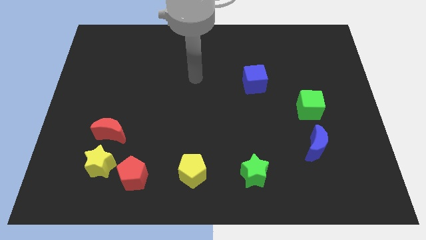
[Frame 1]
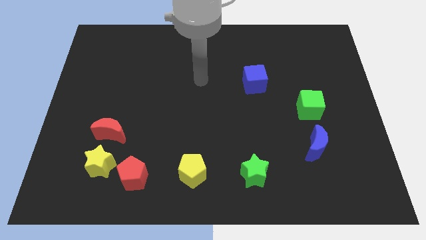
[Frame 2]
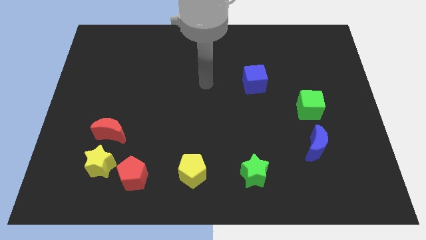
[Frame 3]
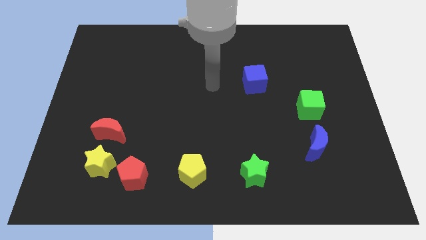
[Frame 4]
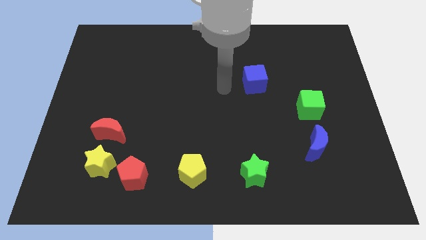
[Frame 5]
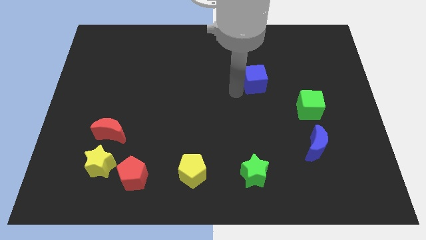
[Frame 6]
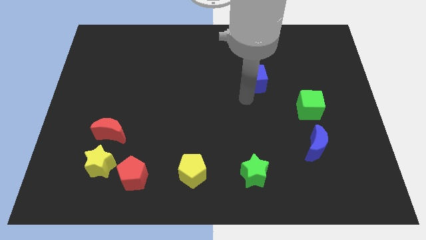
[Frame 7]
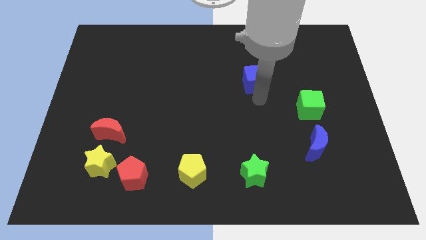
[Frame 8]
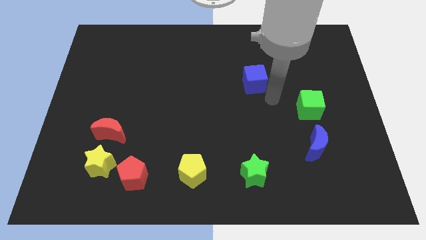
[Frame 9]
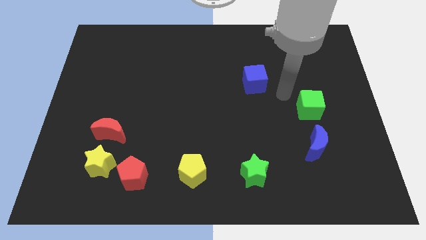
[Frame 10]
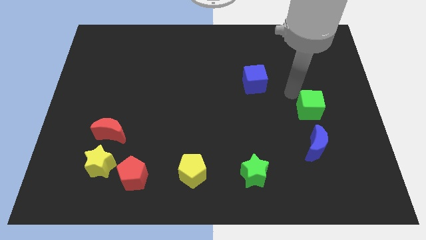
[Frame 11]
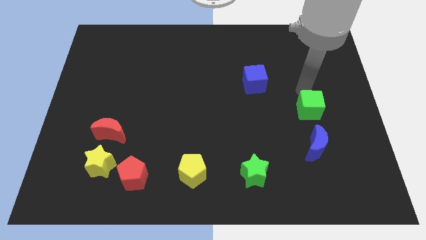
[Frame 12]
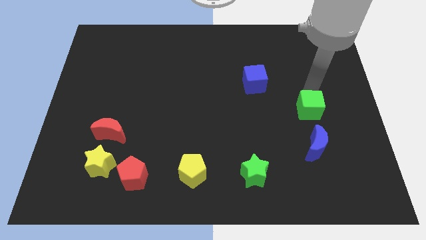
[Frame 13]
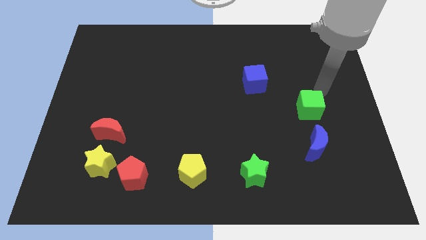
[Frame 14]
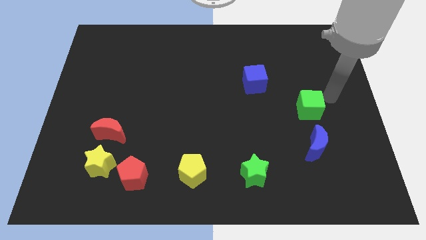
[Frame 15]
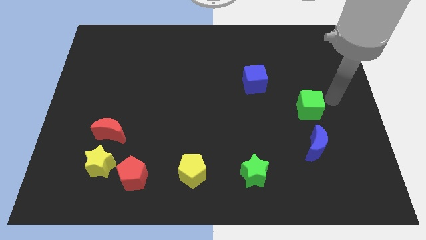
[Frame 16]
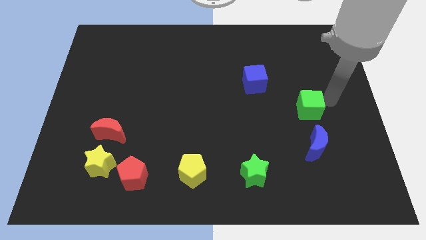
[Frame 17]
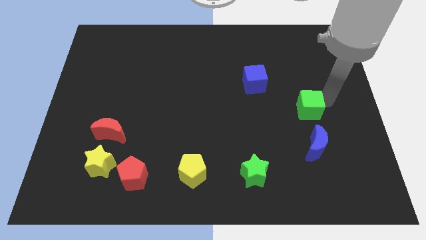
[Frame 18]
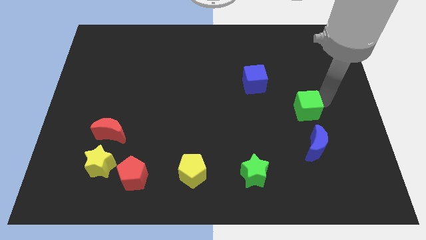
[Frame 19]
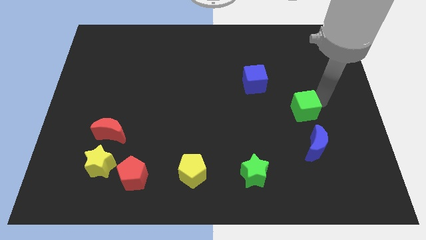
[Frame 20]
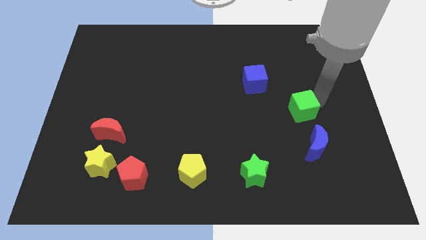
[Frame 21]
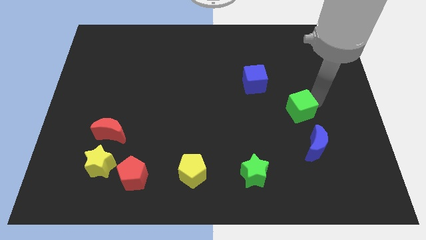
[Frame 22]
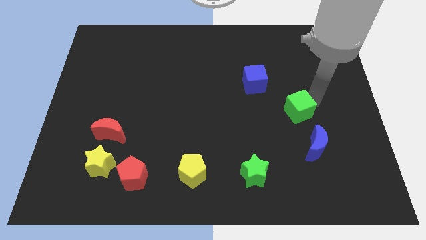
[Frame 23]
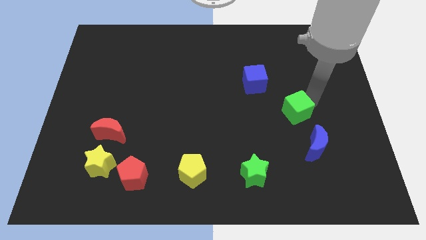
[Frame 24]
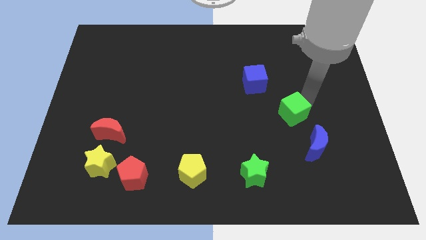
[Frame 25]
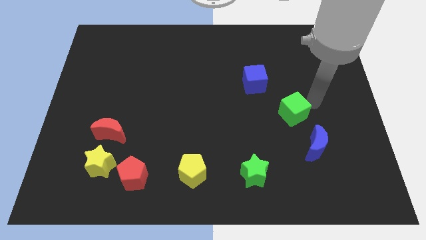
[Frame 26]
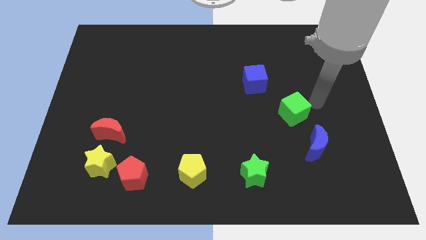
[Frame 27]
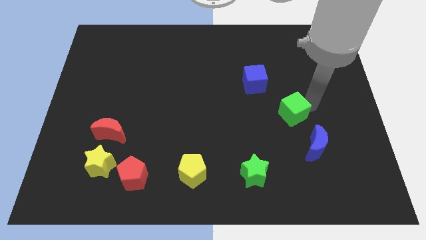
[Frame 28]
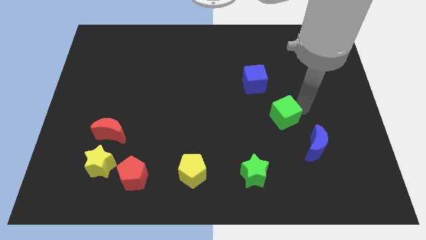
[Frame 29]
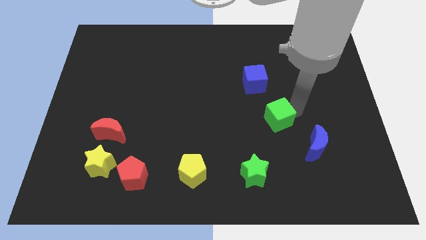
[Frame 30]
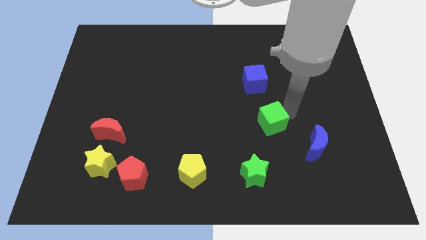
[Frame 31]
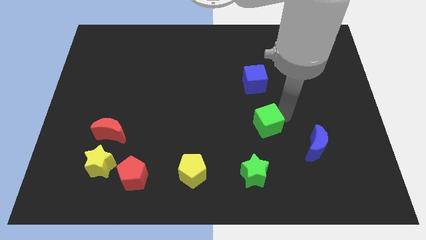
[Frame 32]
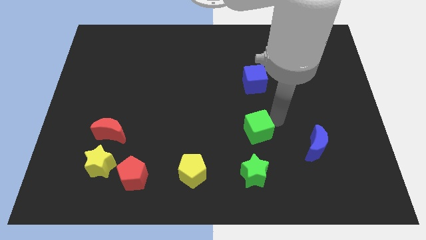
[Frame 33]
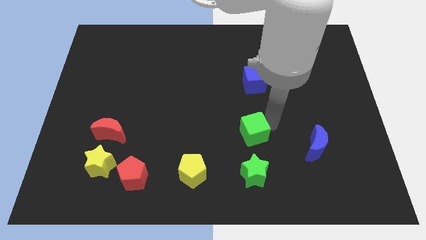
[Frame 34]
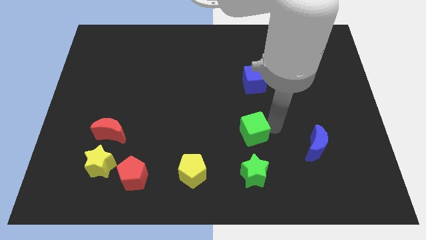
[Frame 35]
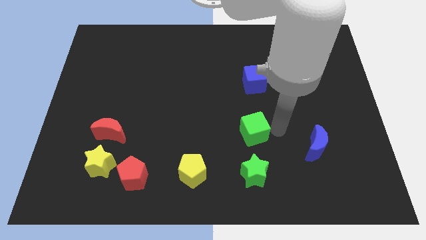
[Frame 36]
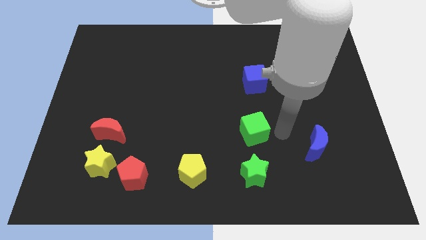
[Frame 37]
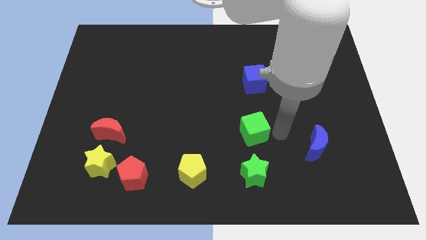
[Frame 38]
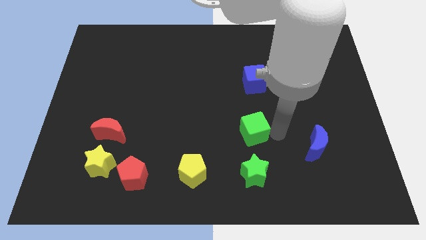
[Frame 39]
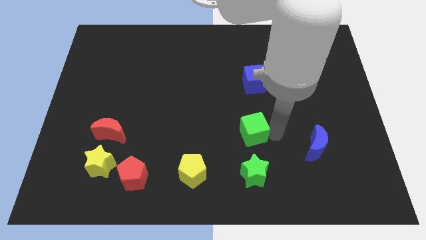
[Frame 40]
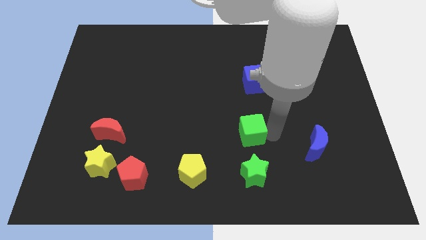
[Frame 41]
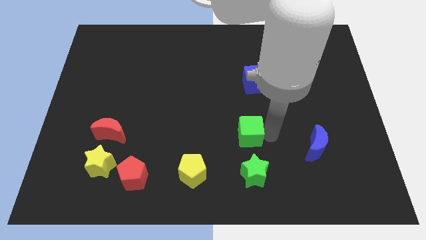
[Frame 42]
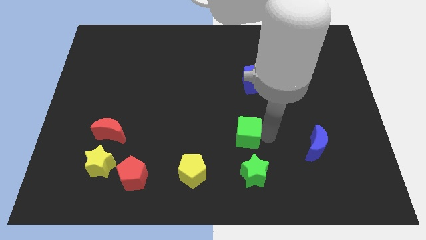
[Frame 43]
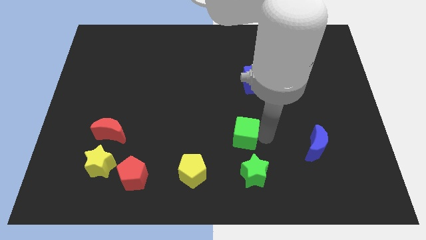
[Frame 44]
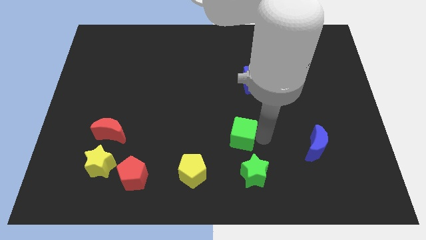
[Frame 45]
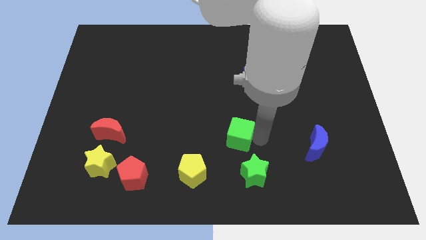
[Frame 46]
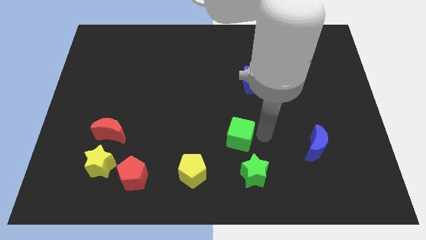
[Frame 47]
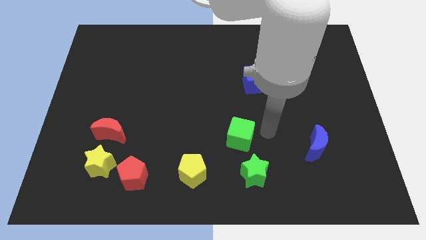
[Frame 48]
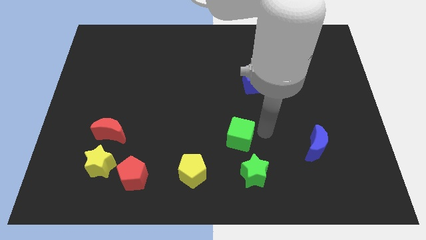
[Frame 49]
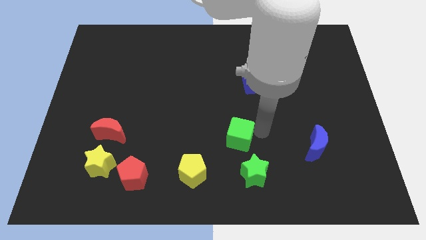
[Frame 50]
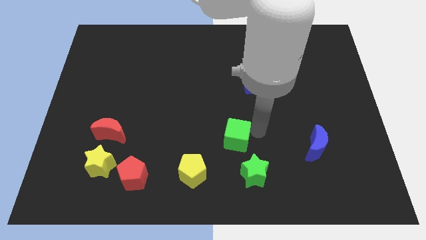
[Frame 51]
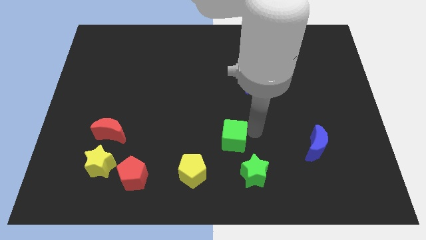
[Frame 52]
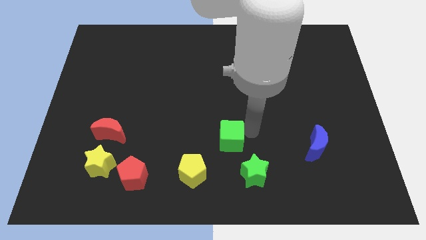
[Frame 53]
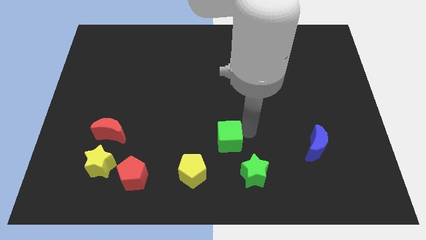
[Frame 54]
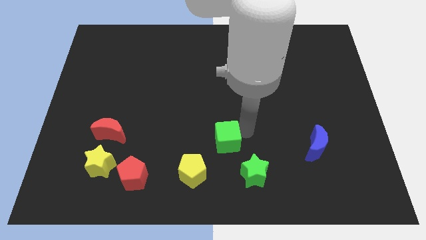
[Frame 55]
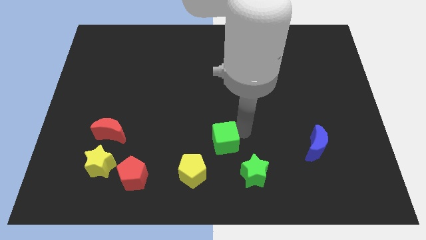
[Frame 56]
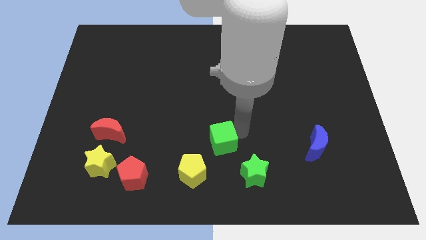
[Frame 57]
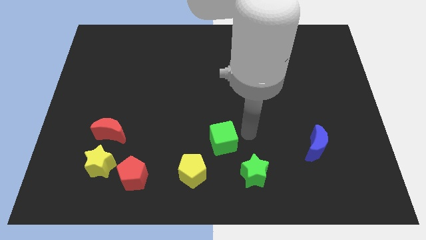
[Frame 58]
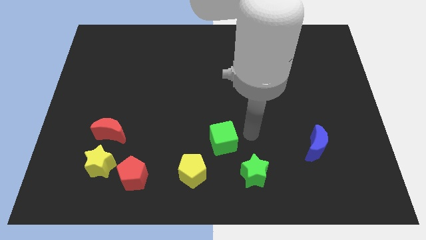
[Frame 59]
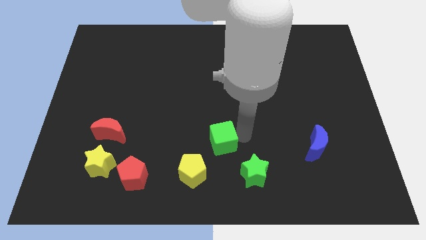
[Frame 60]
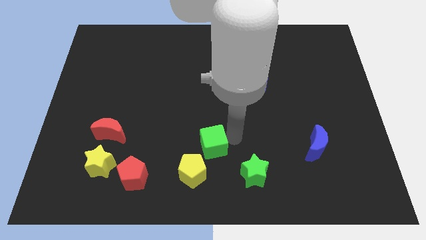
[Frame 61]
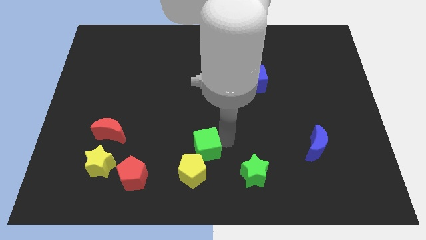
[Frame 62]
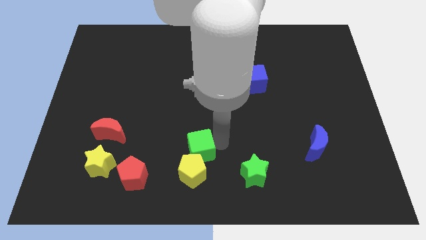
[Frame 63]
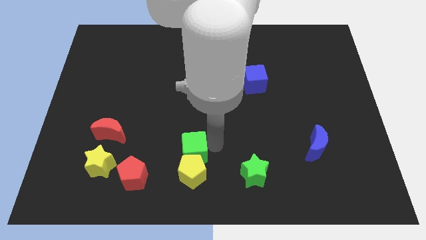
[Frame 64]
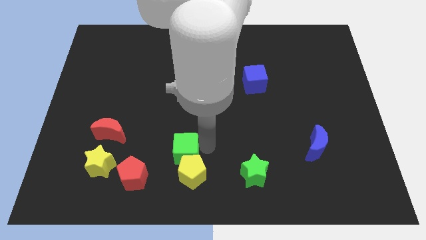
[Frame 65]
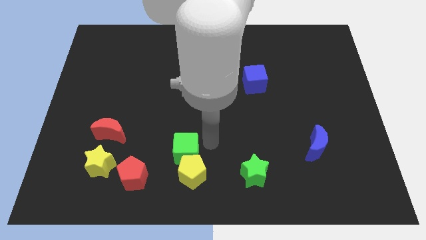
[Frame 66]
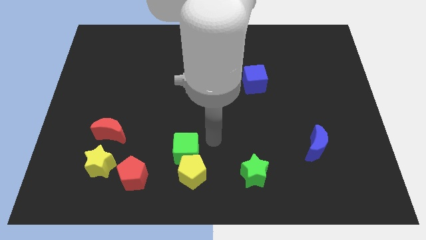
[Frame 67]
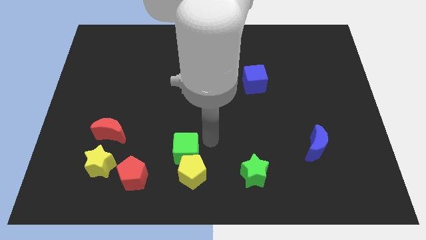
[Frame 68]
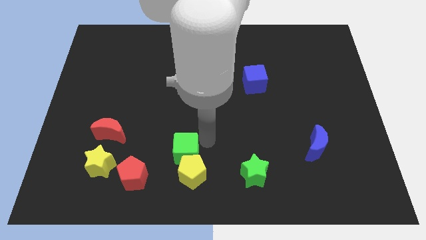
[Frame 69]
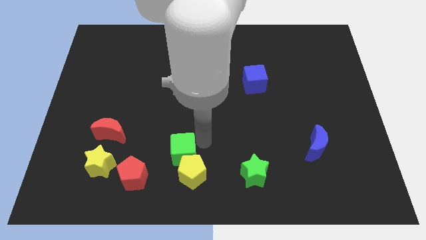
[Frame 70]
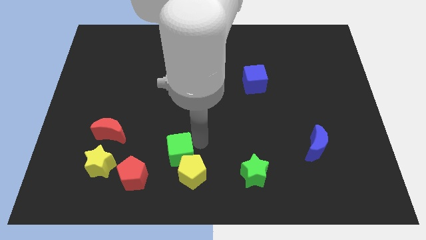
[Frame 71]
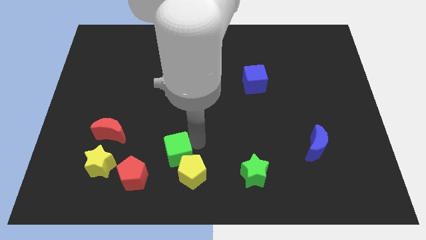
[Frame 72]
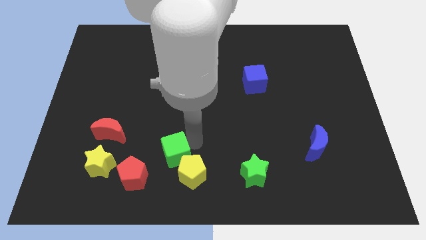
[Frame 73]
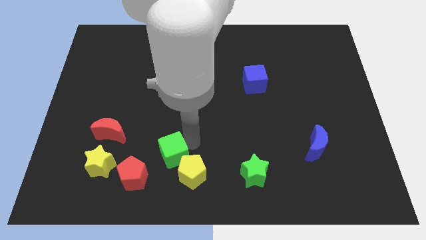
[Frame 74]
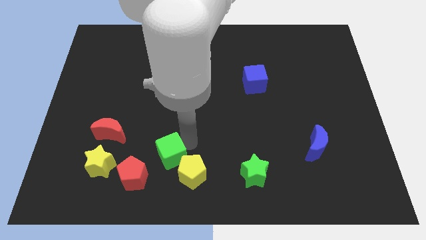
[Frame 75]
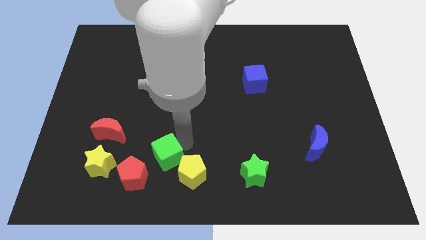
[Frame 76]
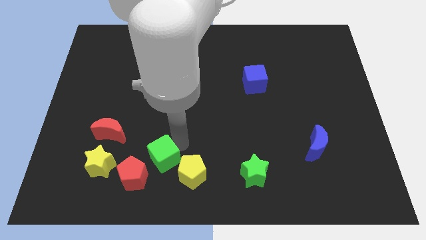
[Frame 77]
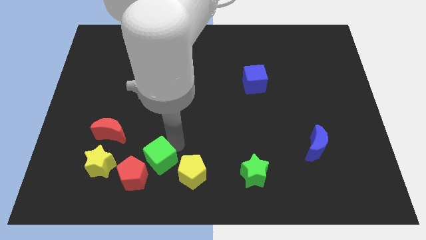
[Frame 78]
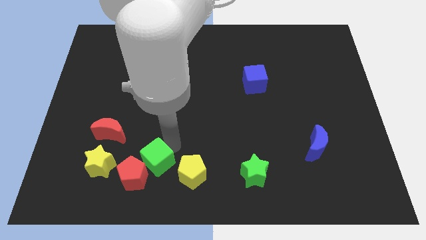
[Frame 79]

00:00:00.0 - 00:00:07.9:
push the green cube next to the red pentagon
